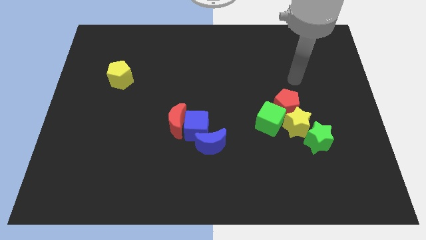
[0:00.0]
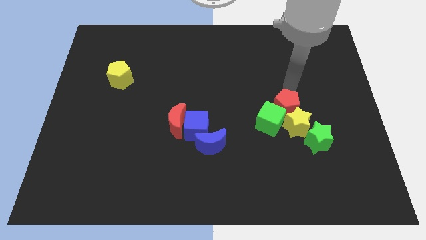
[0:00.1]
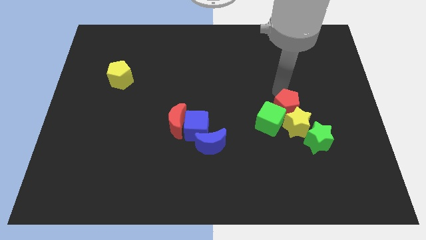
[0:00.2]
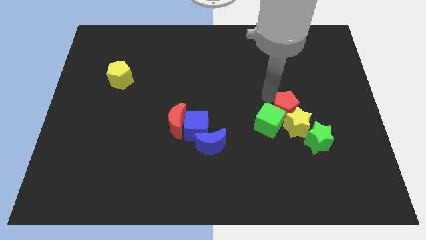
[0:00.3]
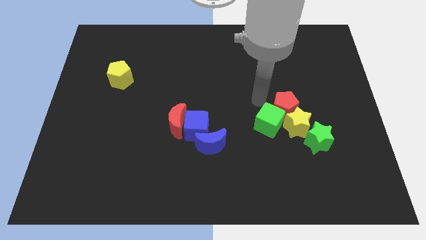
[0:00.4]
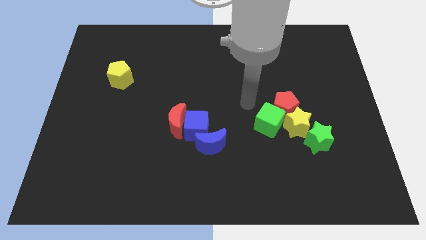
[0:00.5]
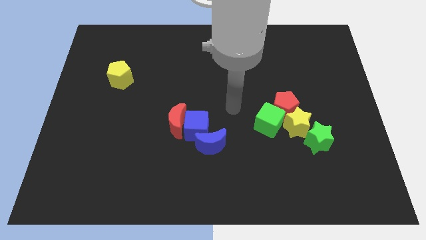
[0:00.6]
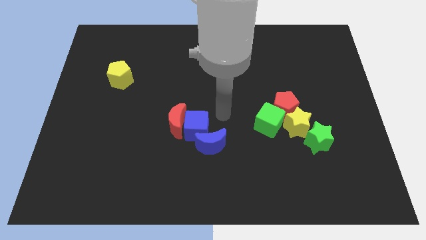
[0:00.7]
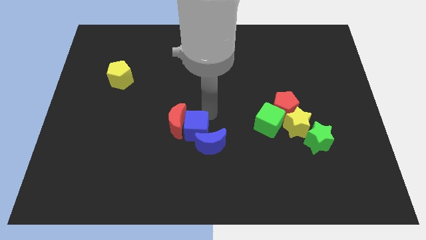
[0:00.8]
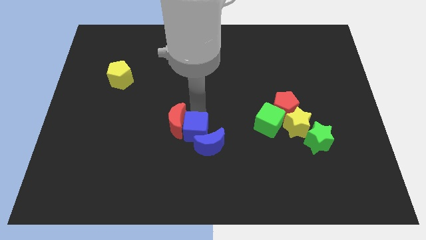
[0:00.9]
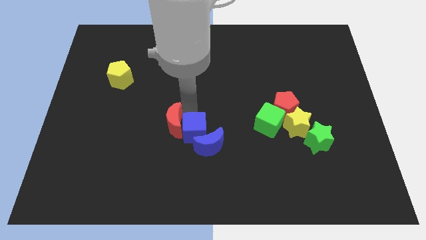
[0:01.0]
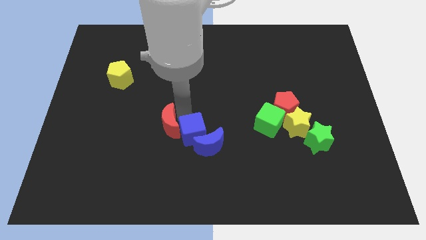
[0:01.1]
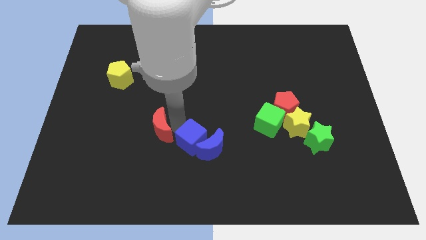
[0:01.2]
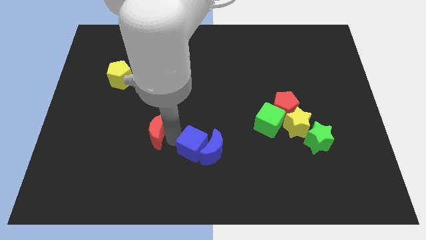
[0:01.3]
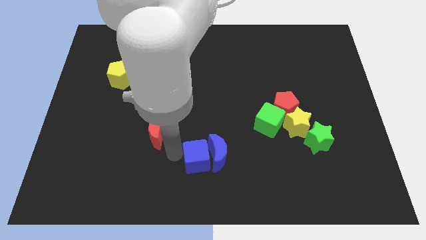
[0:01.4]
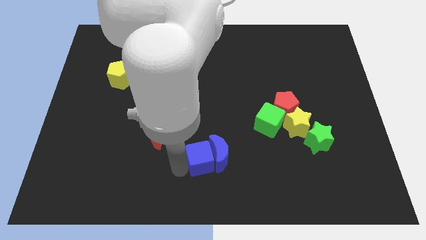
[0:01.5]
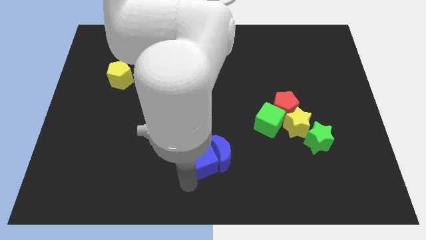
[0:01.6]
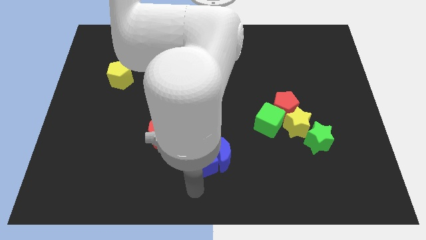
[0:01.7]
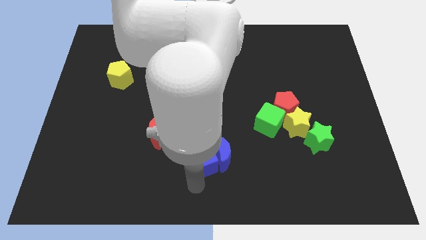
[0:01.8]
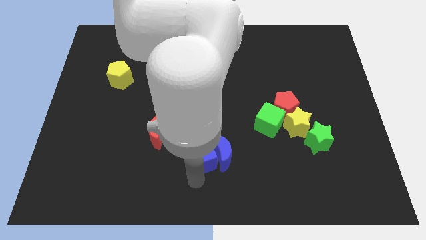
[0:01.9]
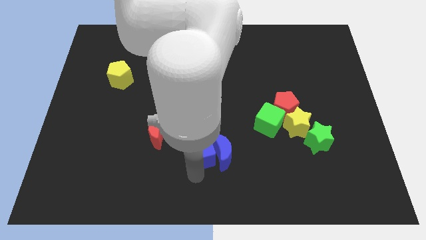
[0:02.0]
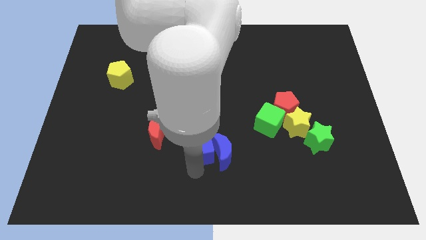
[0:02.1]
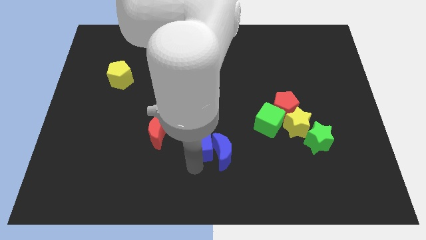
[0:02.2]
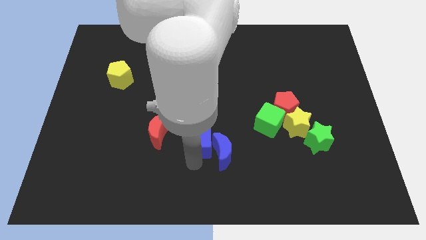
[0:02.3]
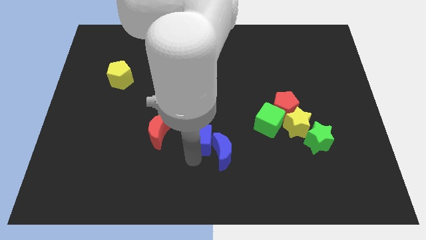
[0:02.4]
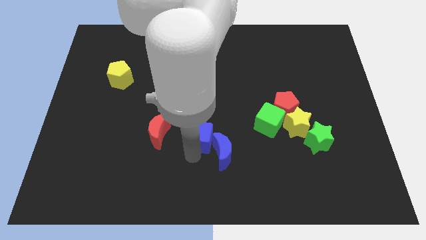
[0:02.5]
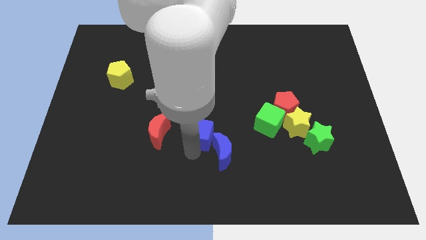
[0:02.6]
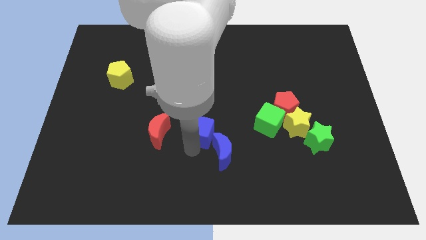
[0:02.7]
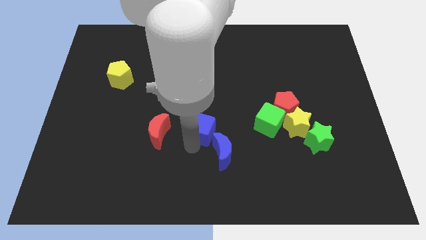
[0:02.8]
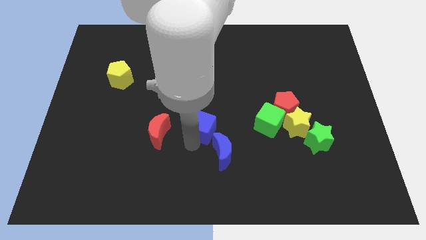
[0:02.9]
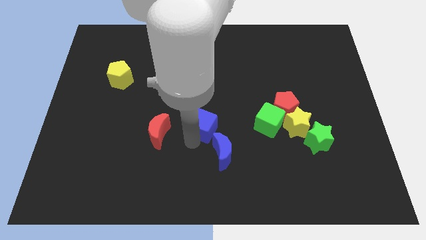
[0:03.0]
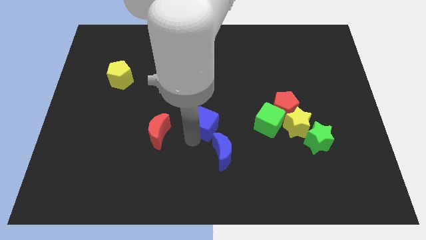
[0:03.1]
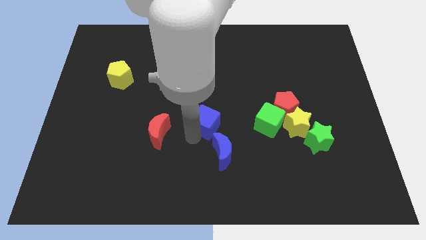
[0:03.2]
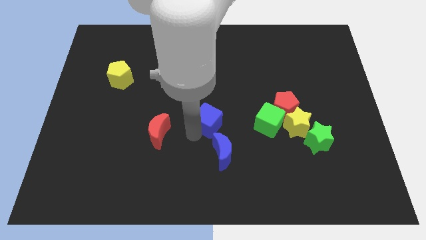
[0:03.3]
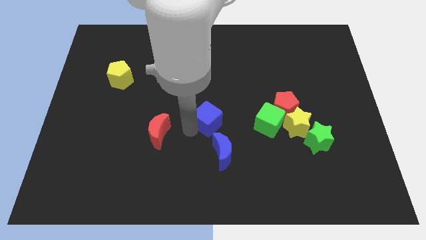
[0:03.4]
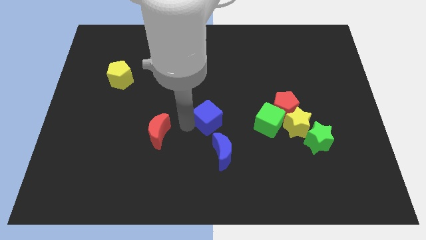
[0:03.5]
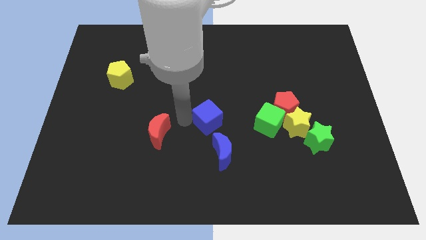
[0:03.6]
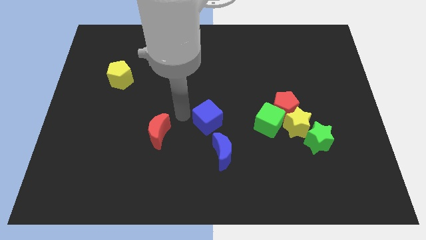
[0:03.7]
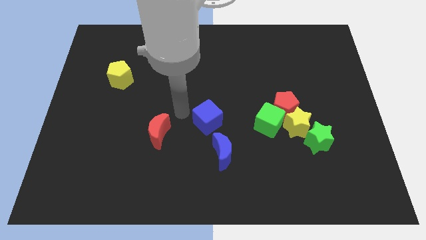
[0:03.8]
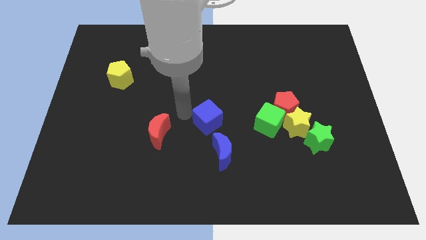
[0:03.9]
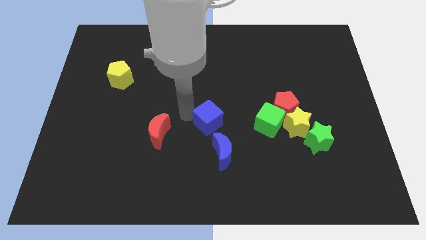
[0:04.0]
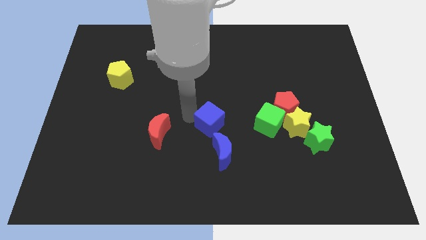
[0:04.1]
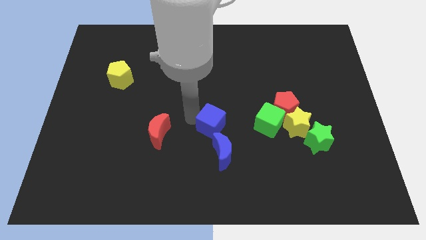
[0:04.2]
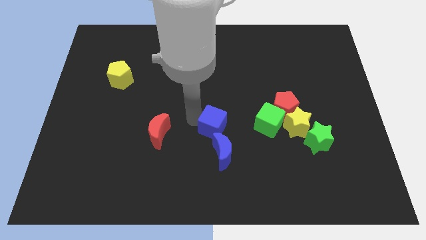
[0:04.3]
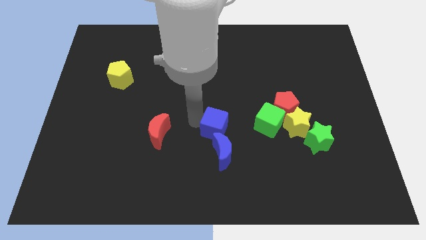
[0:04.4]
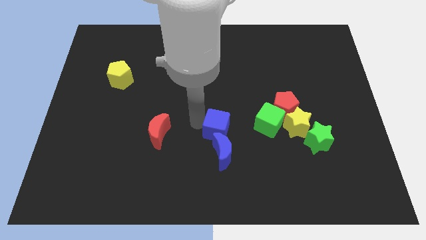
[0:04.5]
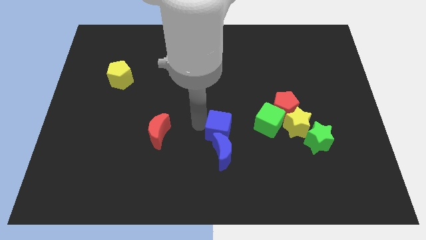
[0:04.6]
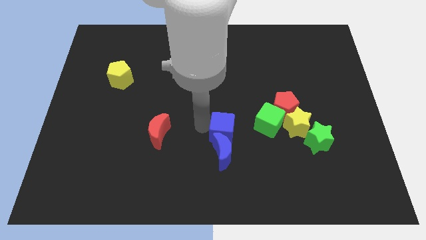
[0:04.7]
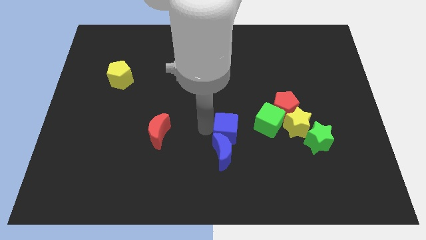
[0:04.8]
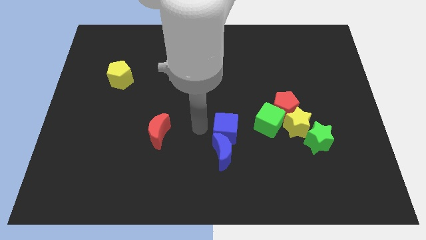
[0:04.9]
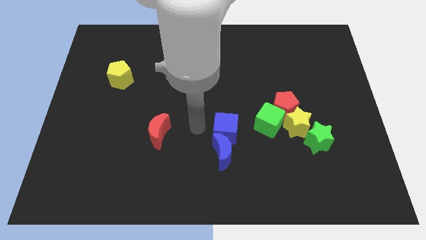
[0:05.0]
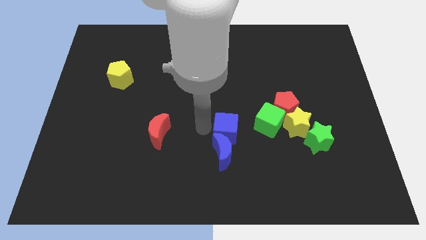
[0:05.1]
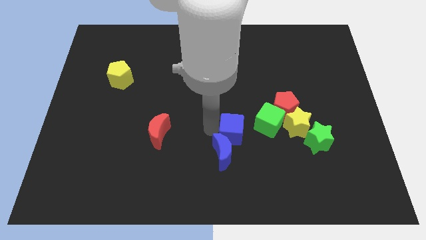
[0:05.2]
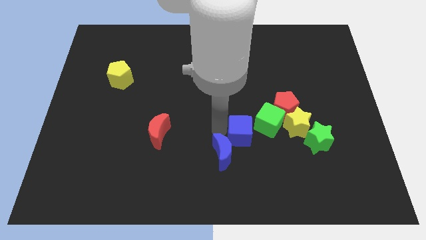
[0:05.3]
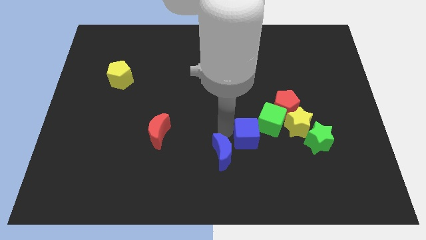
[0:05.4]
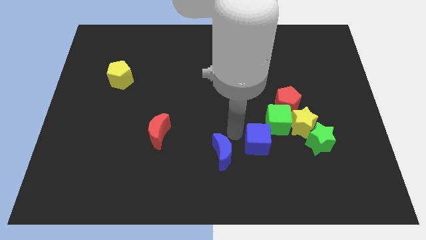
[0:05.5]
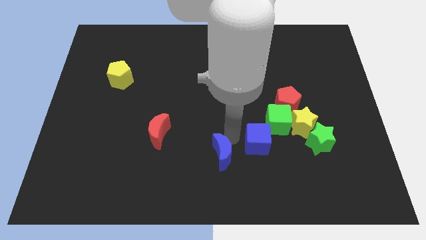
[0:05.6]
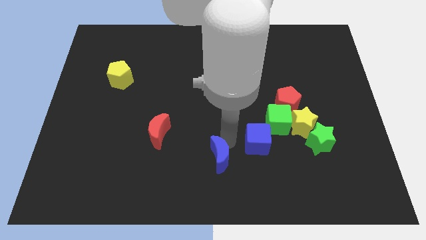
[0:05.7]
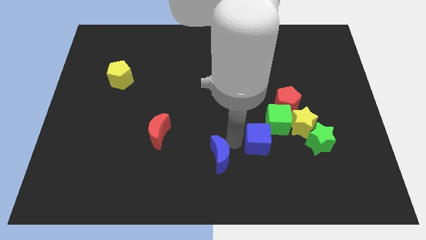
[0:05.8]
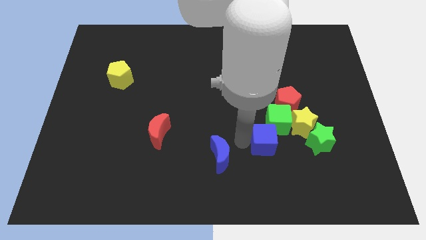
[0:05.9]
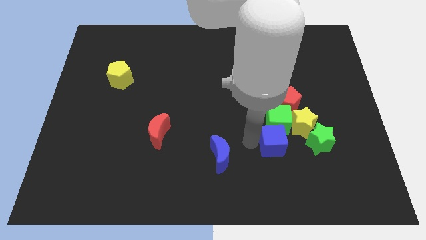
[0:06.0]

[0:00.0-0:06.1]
put the blue cube below the red pentagon
